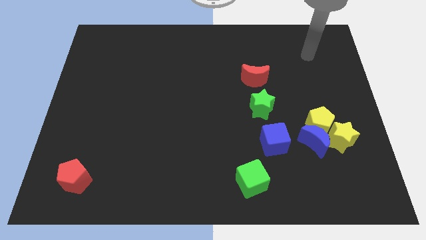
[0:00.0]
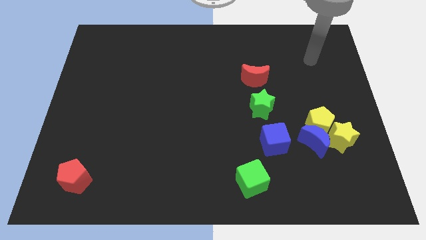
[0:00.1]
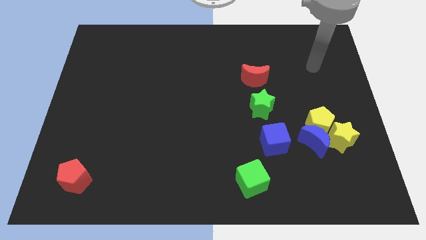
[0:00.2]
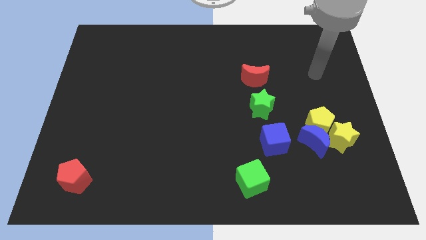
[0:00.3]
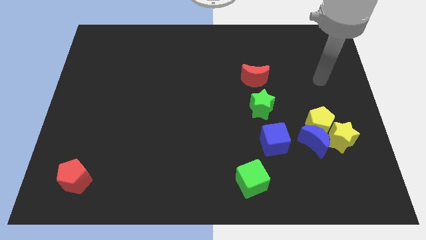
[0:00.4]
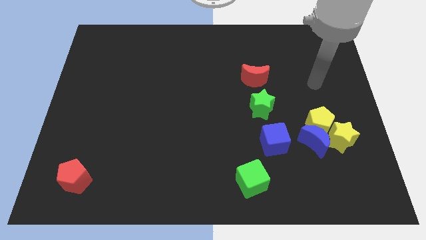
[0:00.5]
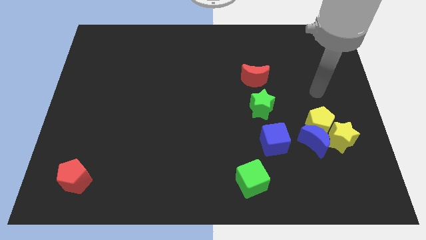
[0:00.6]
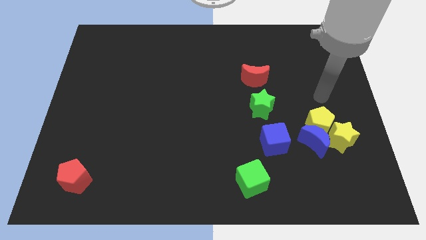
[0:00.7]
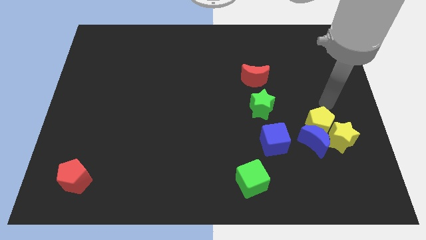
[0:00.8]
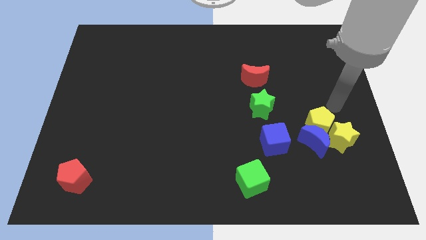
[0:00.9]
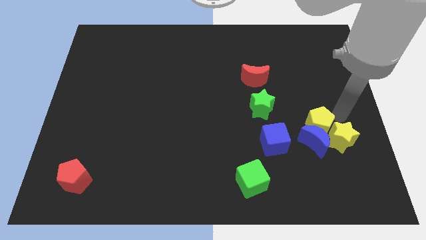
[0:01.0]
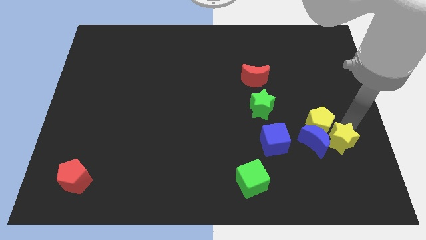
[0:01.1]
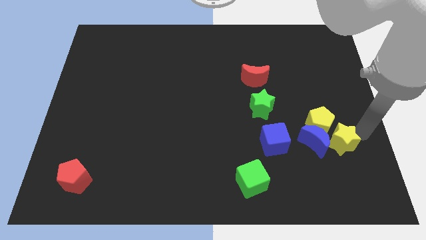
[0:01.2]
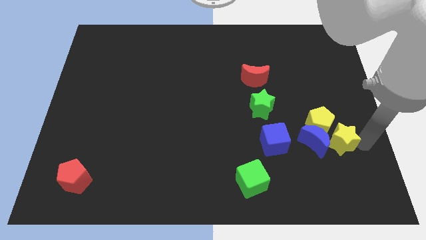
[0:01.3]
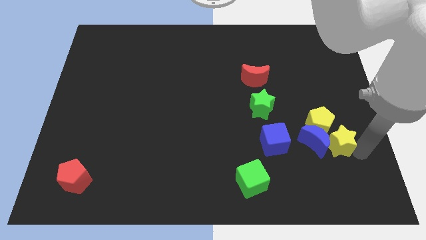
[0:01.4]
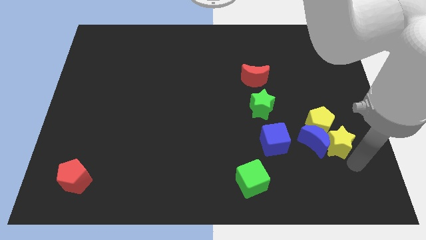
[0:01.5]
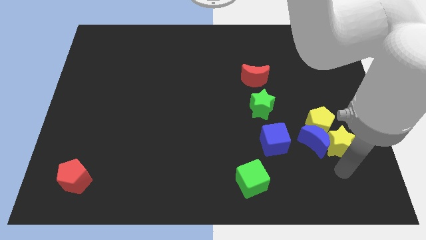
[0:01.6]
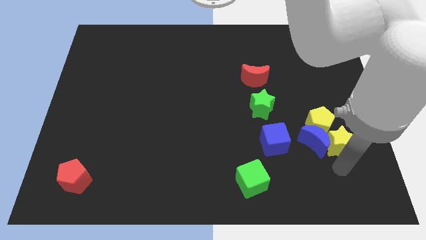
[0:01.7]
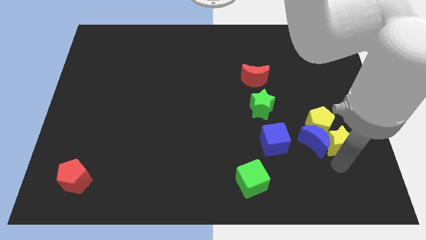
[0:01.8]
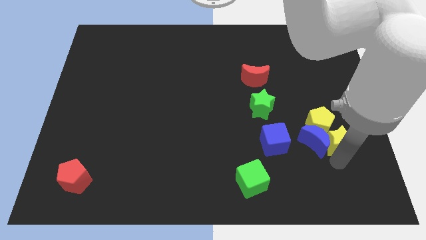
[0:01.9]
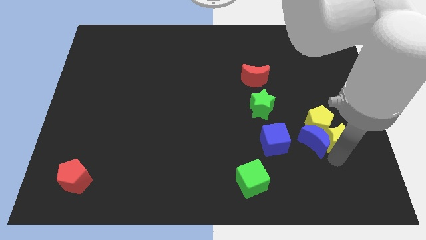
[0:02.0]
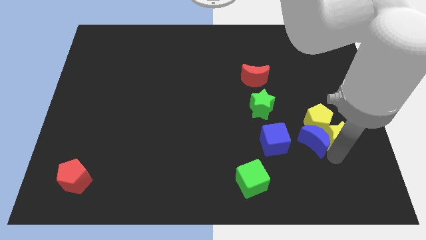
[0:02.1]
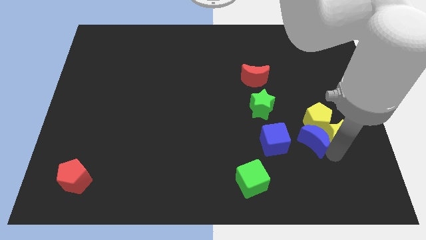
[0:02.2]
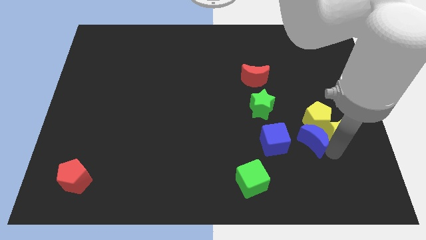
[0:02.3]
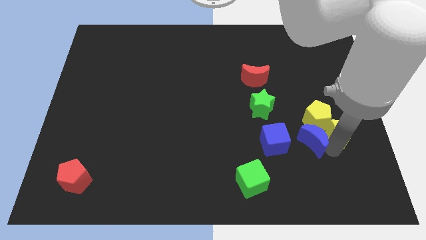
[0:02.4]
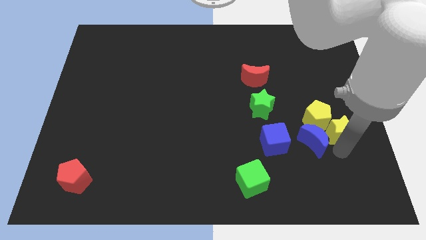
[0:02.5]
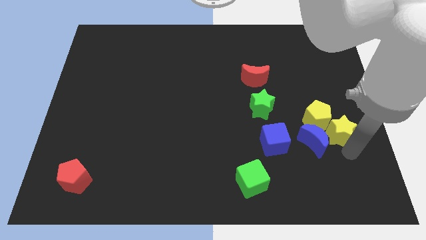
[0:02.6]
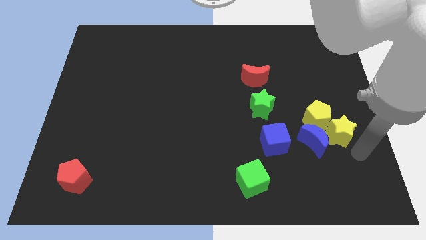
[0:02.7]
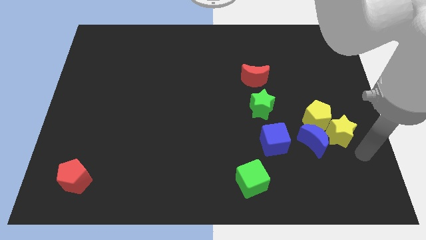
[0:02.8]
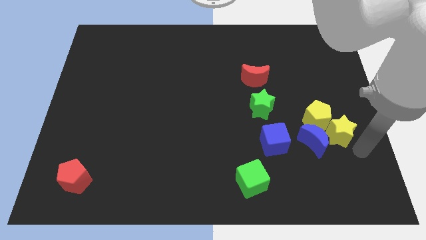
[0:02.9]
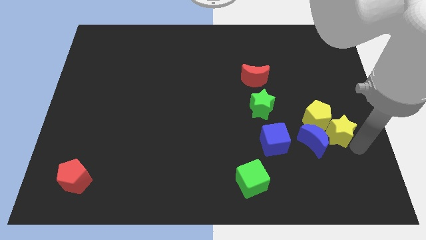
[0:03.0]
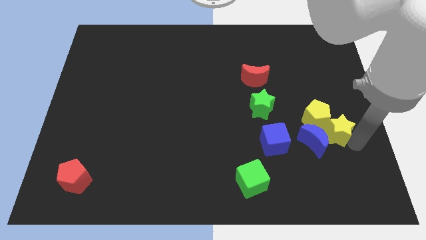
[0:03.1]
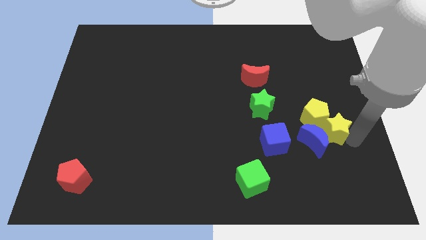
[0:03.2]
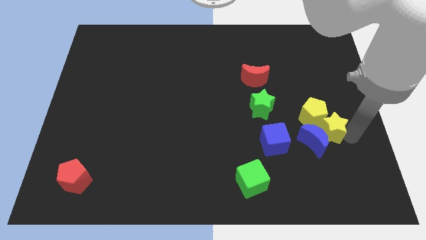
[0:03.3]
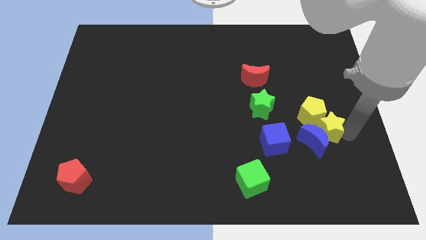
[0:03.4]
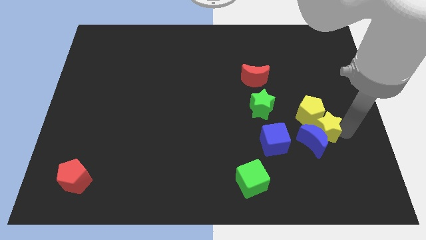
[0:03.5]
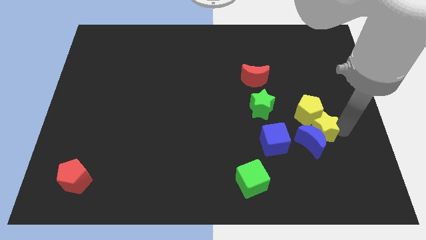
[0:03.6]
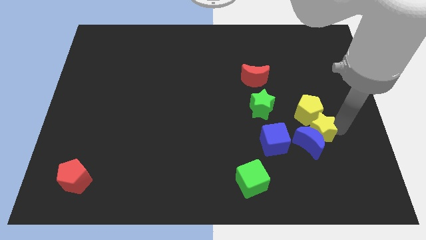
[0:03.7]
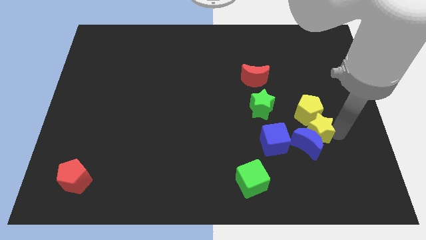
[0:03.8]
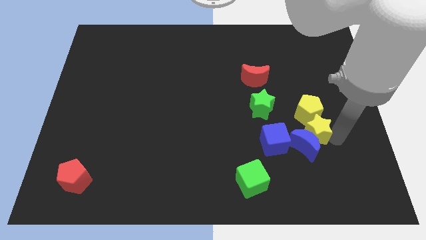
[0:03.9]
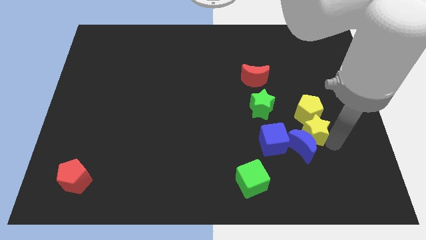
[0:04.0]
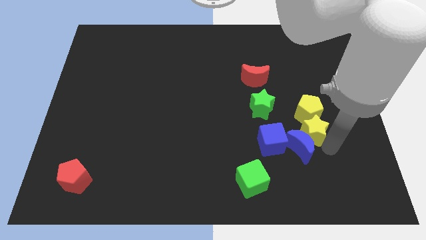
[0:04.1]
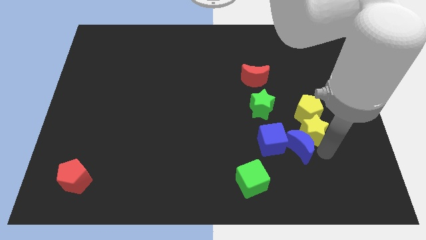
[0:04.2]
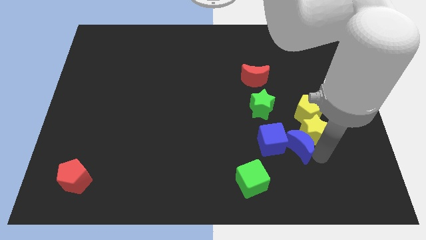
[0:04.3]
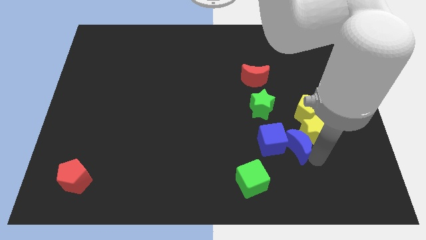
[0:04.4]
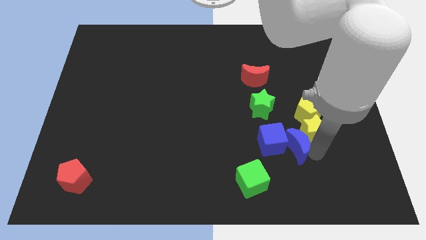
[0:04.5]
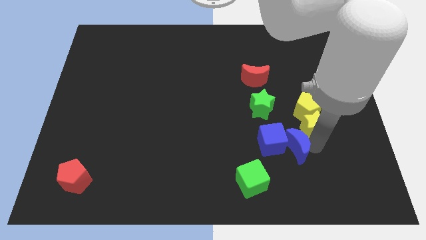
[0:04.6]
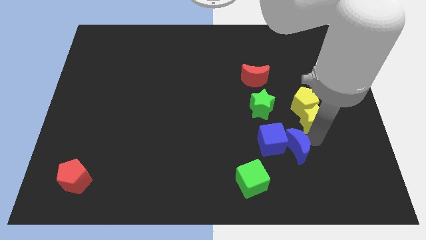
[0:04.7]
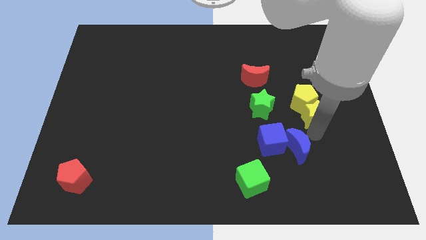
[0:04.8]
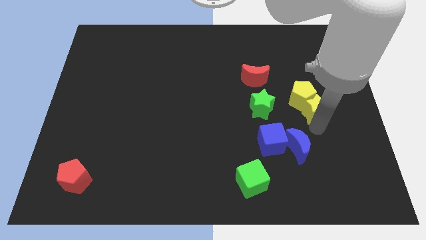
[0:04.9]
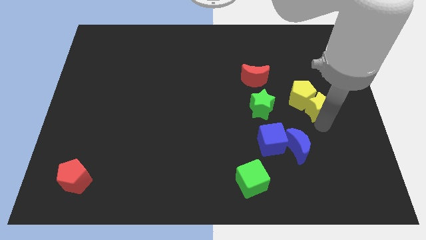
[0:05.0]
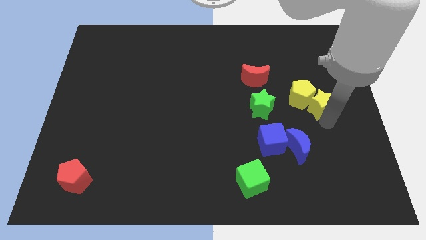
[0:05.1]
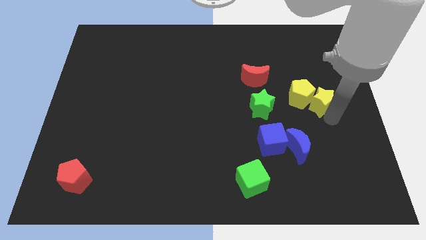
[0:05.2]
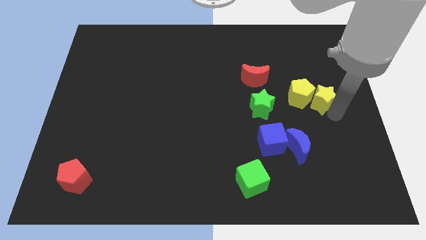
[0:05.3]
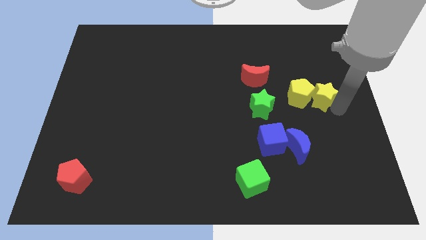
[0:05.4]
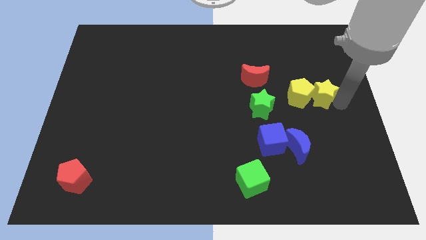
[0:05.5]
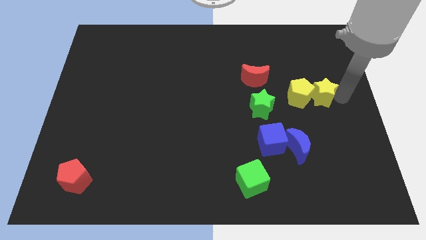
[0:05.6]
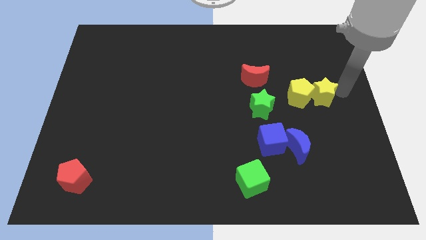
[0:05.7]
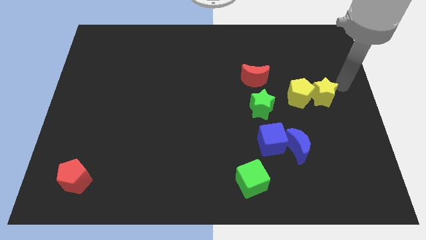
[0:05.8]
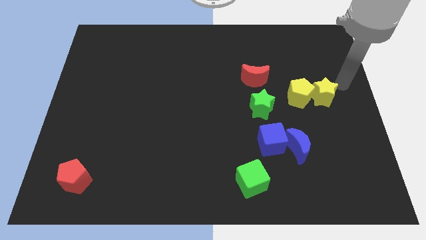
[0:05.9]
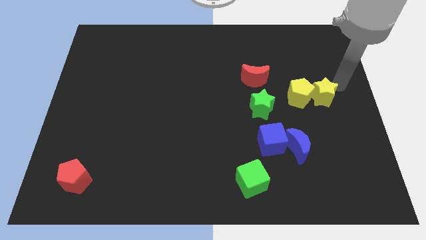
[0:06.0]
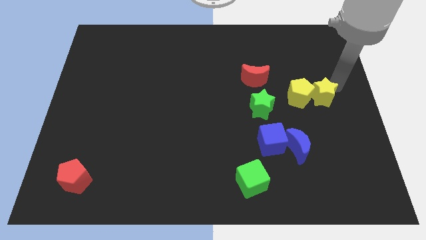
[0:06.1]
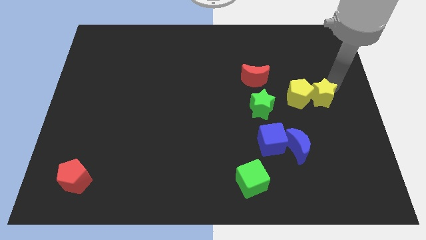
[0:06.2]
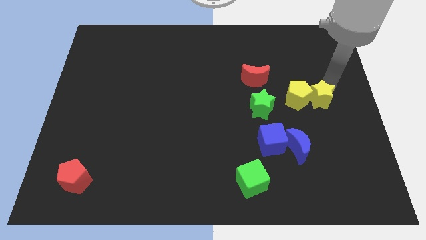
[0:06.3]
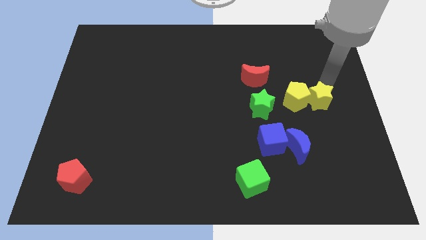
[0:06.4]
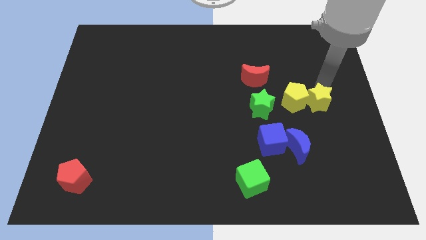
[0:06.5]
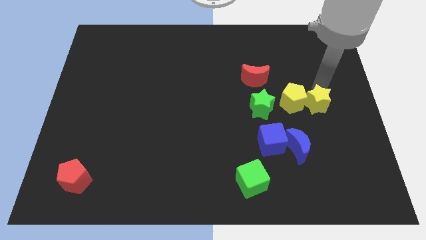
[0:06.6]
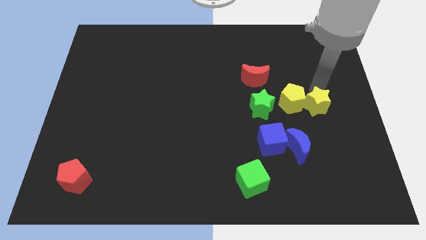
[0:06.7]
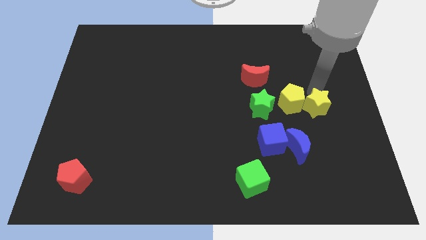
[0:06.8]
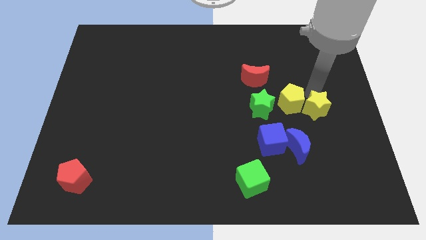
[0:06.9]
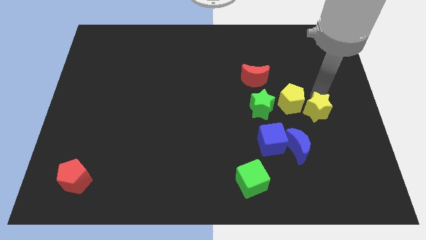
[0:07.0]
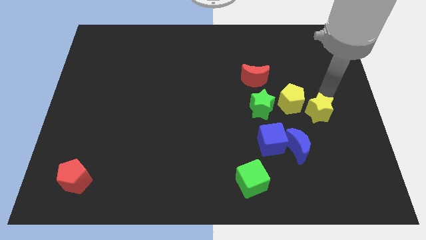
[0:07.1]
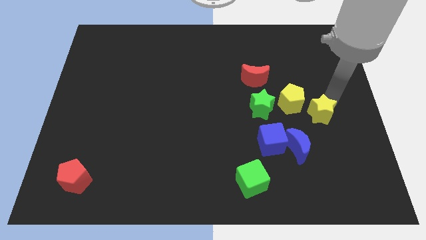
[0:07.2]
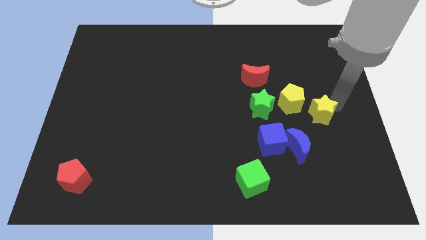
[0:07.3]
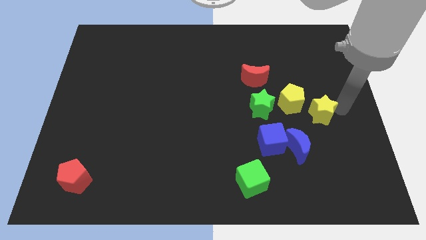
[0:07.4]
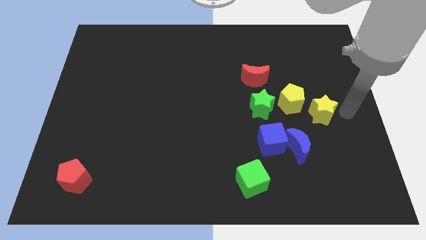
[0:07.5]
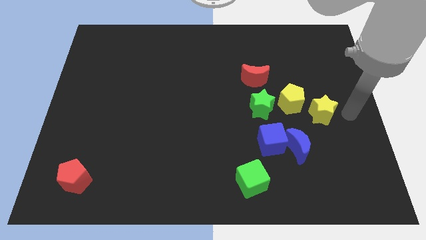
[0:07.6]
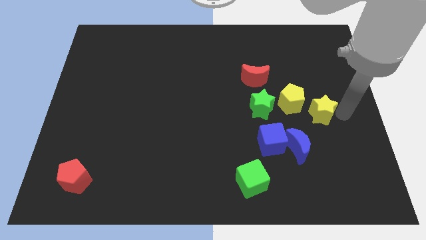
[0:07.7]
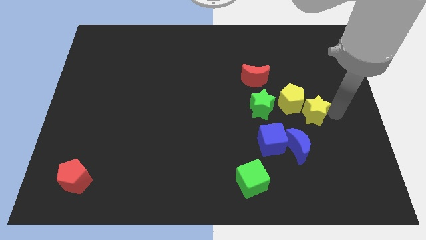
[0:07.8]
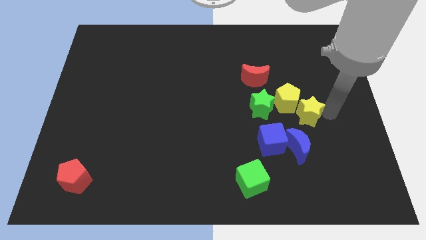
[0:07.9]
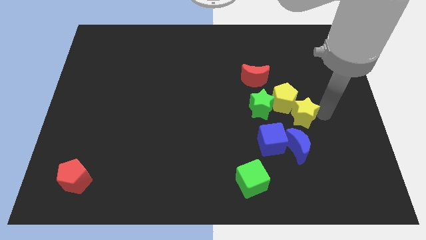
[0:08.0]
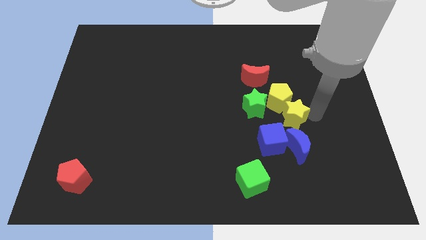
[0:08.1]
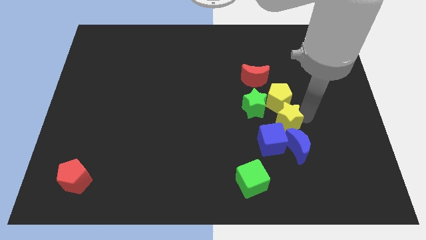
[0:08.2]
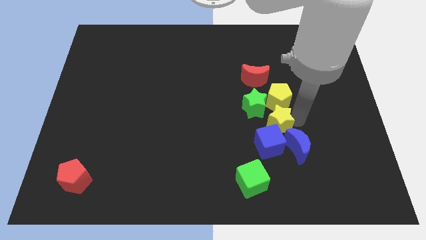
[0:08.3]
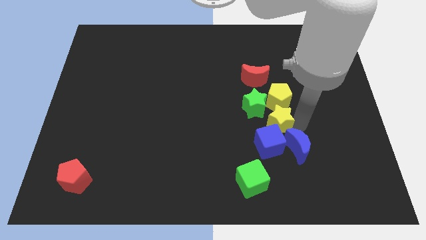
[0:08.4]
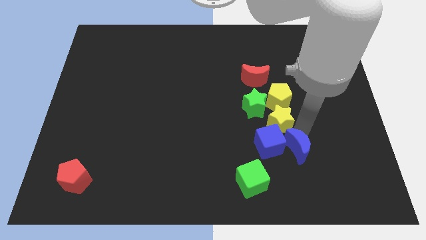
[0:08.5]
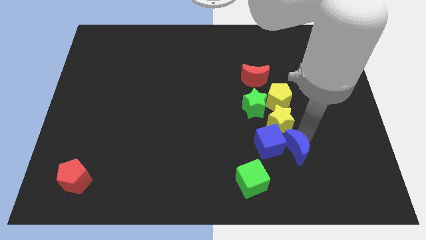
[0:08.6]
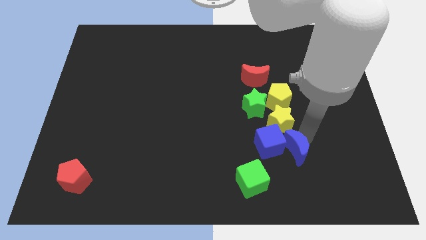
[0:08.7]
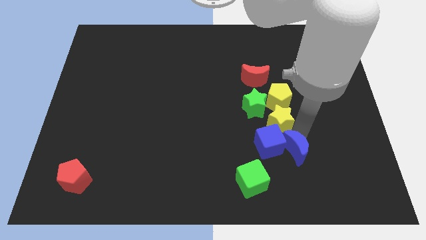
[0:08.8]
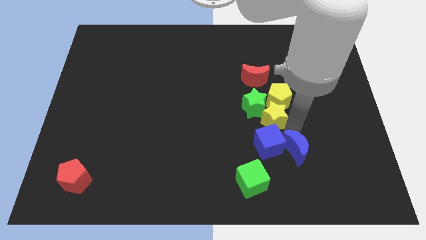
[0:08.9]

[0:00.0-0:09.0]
push the yellow star close to the green star
